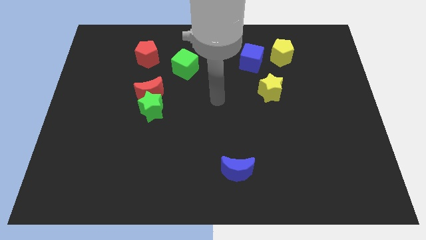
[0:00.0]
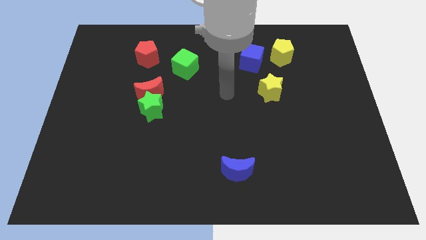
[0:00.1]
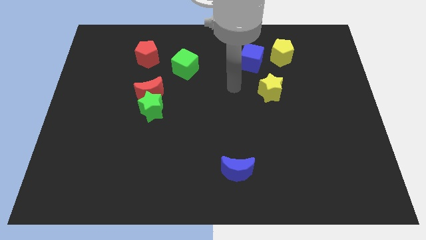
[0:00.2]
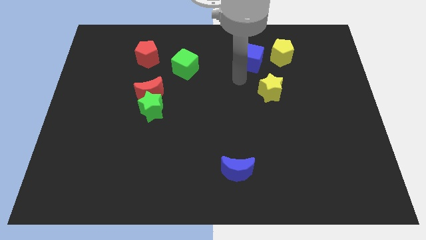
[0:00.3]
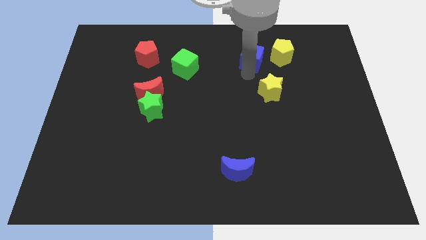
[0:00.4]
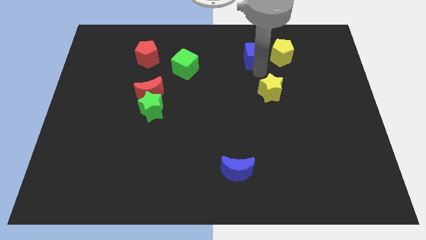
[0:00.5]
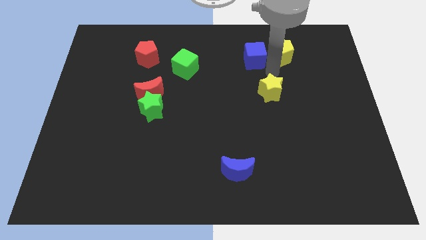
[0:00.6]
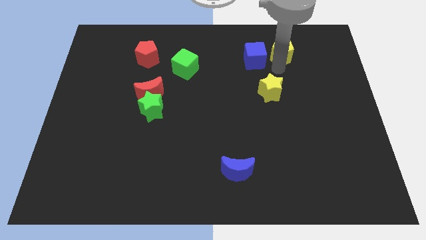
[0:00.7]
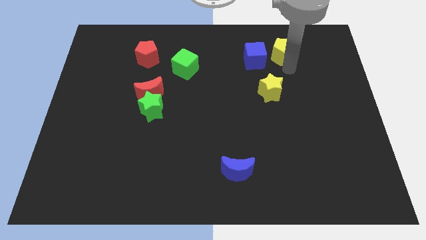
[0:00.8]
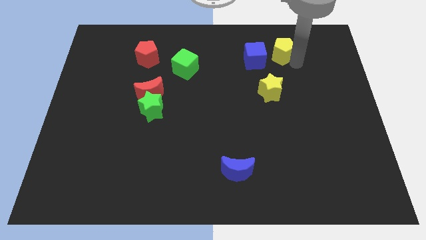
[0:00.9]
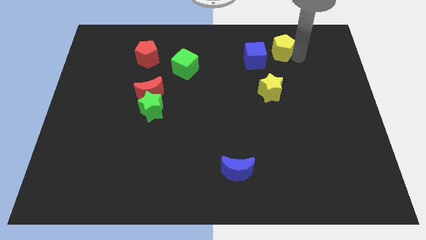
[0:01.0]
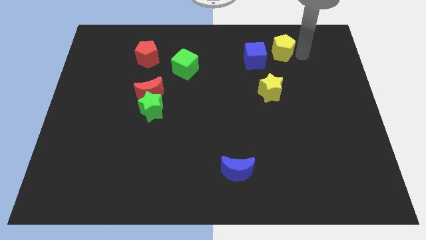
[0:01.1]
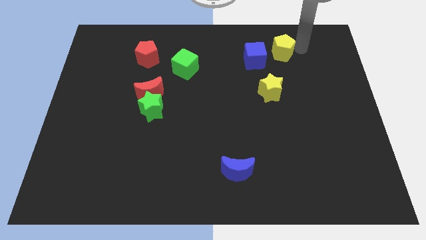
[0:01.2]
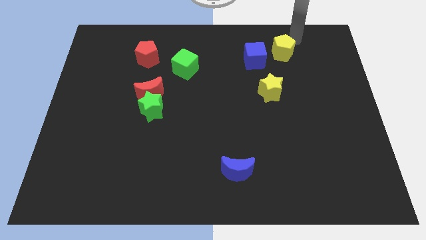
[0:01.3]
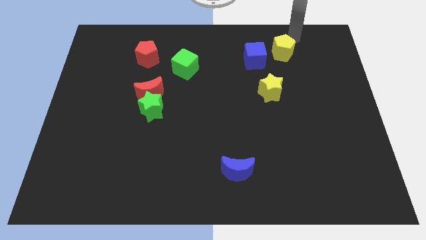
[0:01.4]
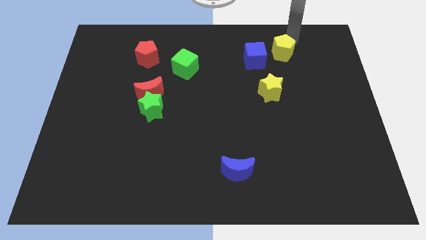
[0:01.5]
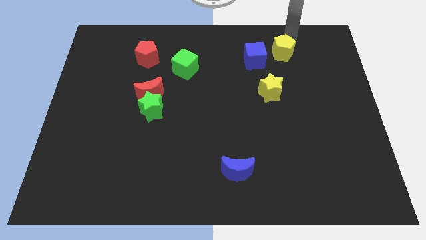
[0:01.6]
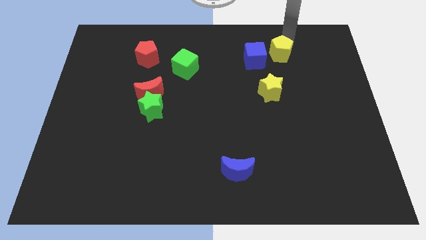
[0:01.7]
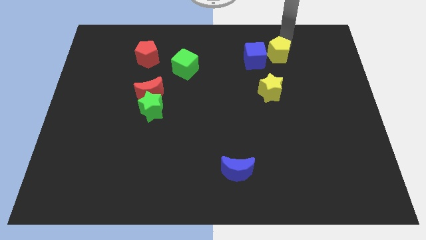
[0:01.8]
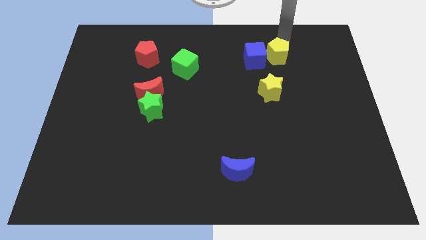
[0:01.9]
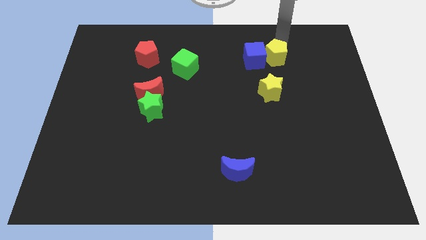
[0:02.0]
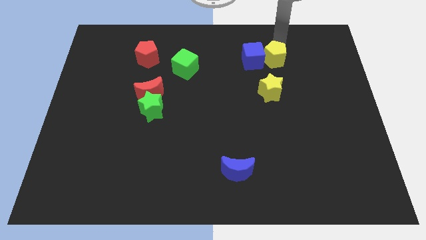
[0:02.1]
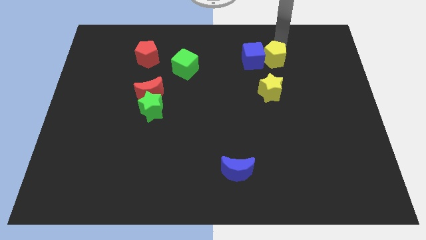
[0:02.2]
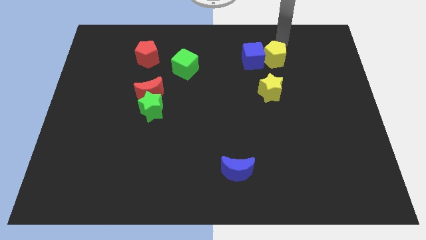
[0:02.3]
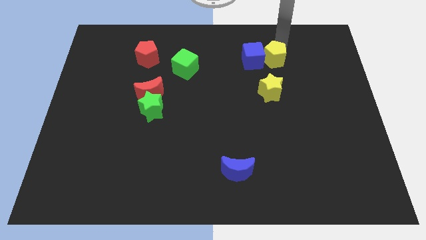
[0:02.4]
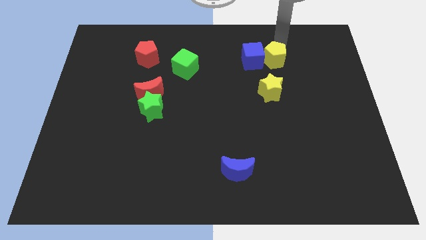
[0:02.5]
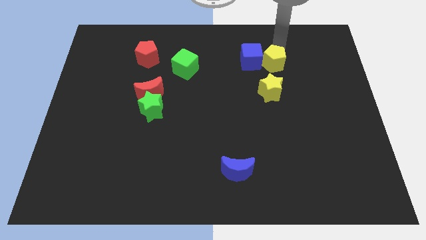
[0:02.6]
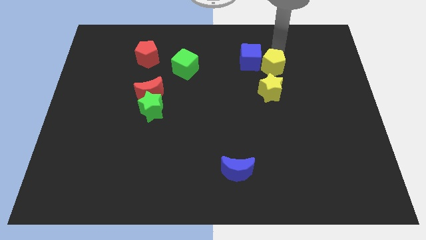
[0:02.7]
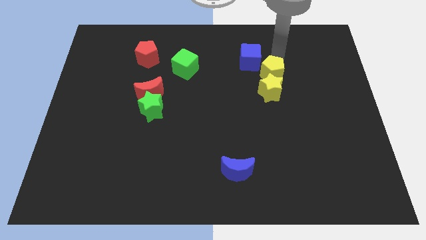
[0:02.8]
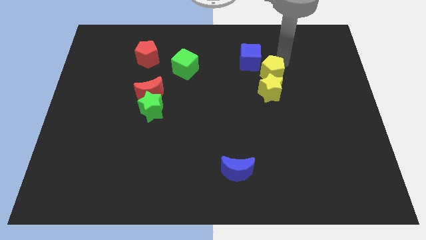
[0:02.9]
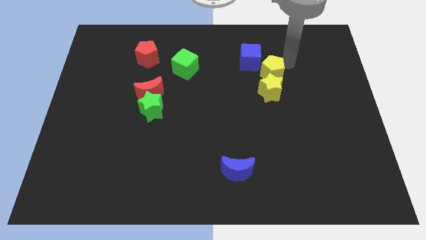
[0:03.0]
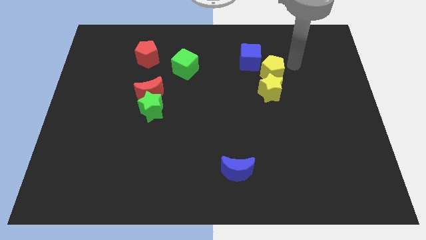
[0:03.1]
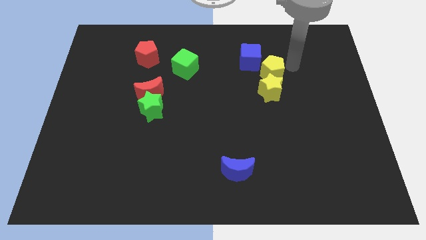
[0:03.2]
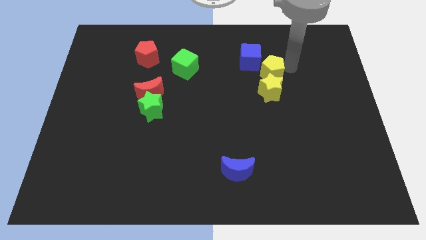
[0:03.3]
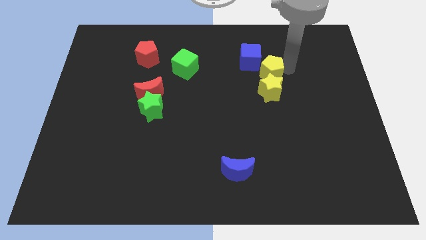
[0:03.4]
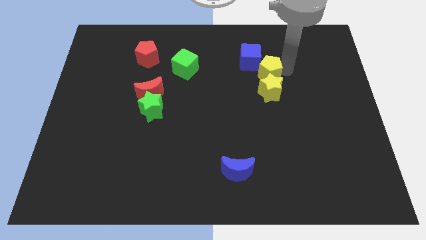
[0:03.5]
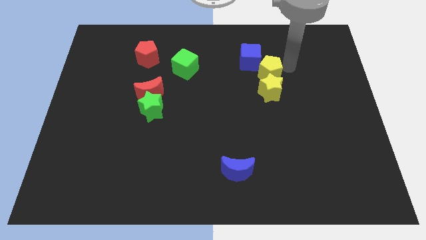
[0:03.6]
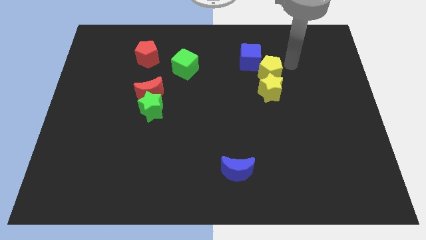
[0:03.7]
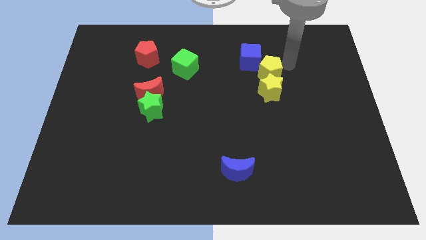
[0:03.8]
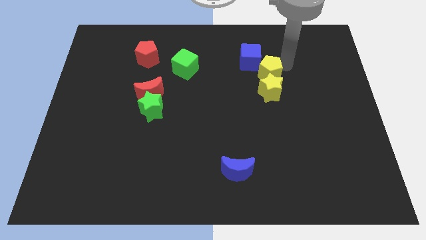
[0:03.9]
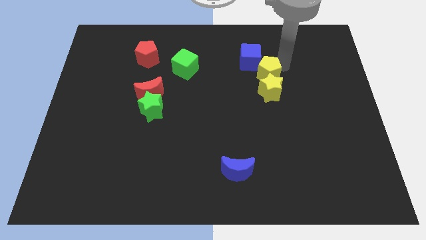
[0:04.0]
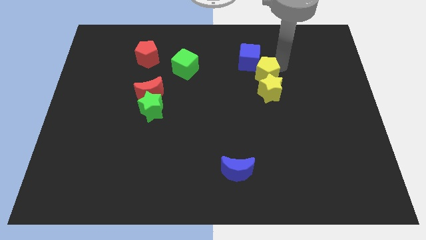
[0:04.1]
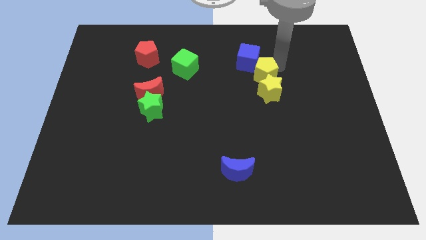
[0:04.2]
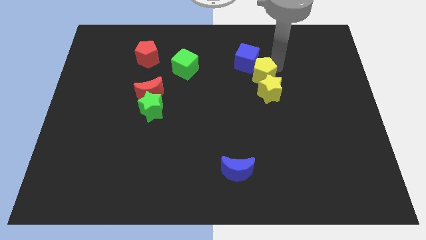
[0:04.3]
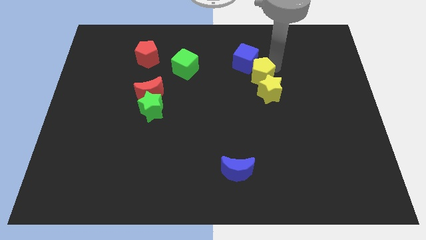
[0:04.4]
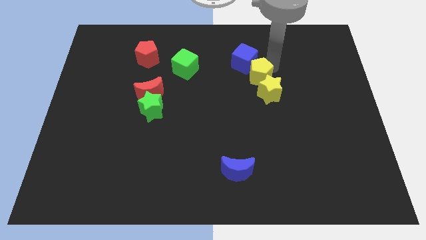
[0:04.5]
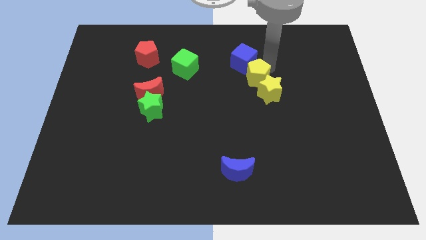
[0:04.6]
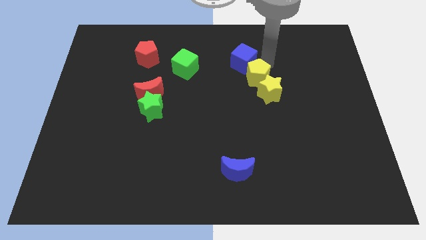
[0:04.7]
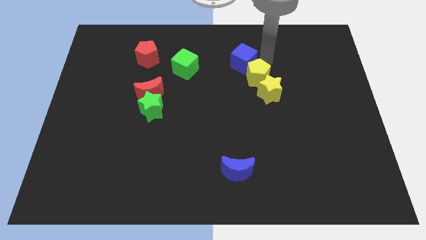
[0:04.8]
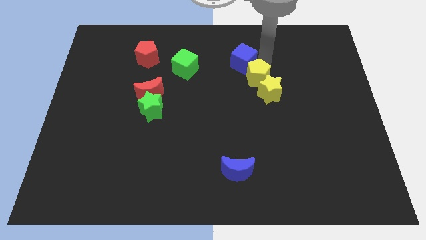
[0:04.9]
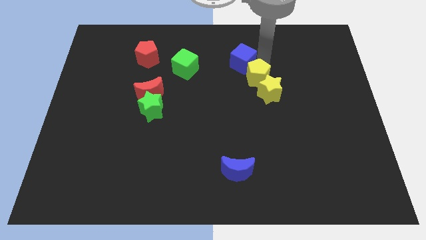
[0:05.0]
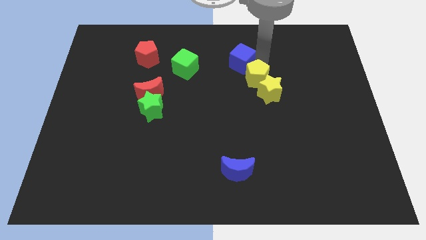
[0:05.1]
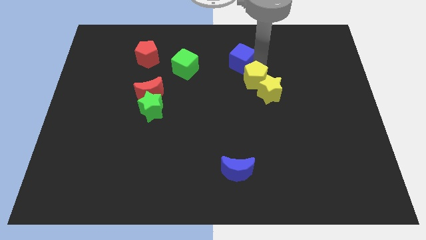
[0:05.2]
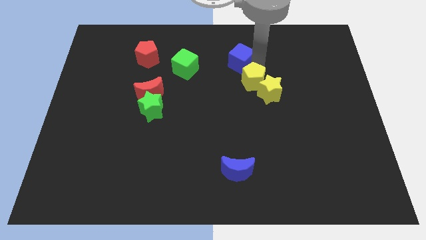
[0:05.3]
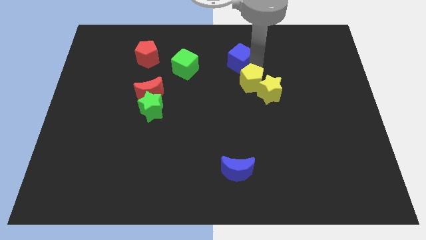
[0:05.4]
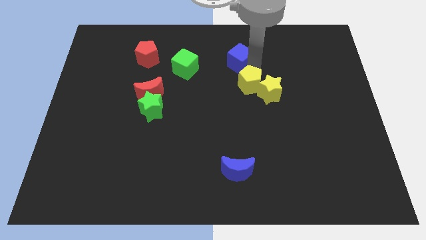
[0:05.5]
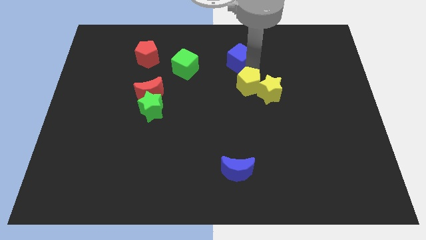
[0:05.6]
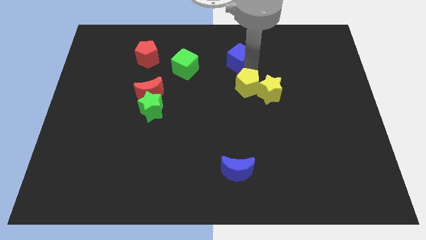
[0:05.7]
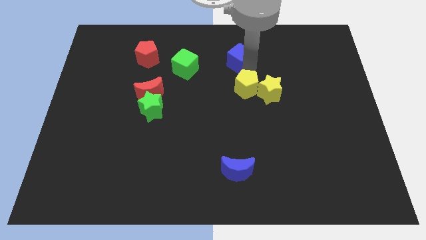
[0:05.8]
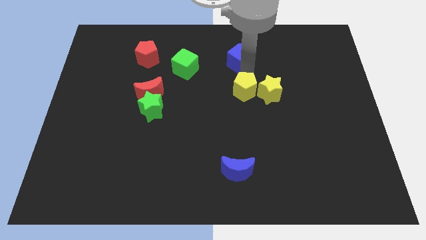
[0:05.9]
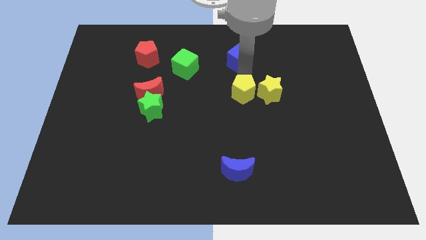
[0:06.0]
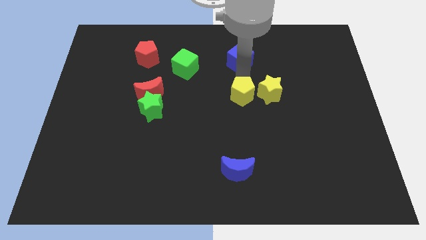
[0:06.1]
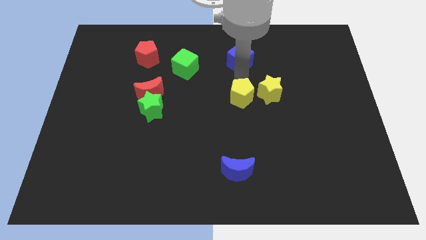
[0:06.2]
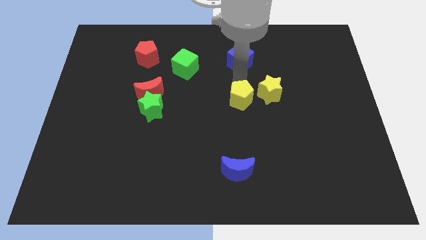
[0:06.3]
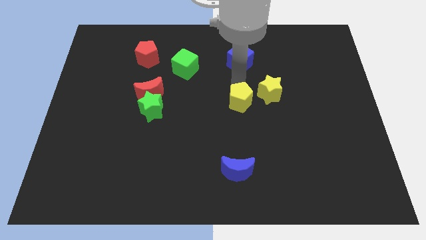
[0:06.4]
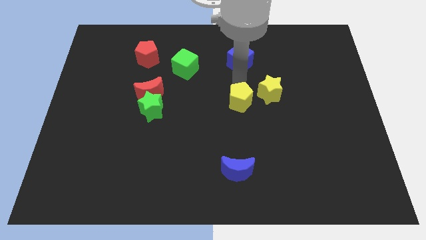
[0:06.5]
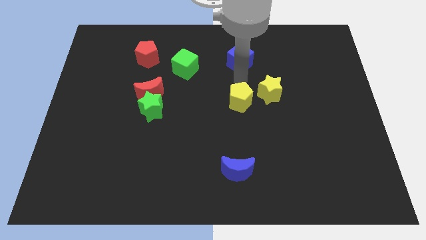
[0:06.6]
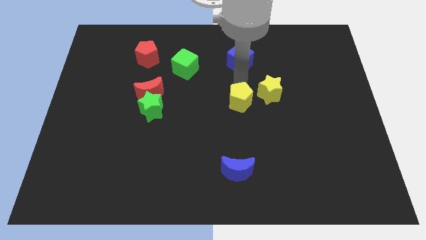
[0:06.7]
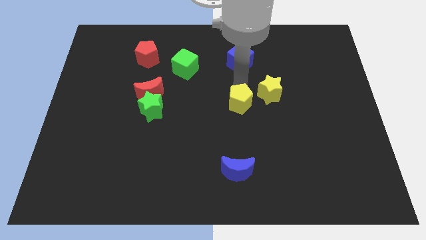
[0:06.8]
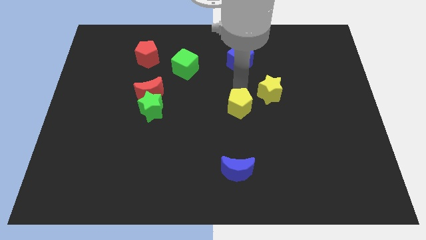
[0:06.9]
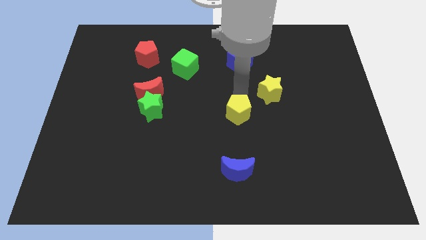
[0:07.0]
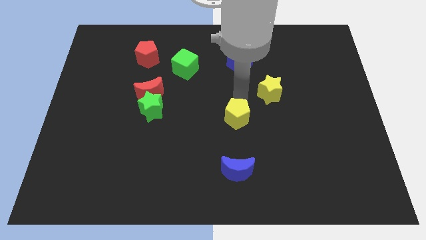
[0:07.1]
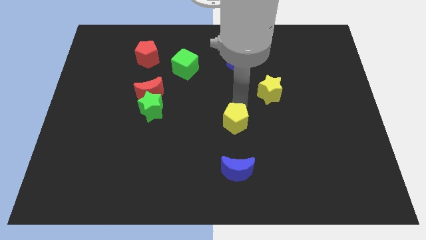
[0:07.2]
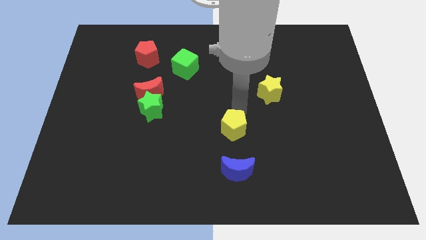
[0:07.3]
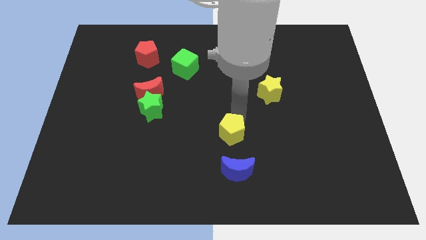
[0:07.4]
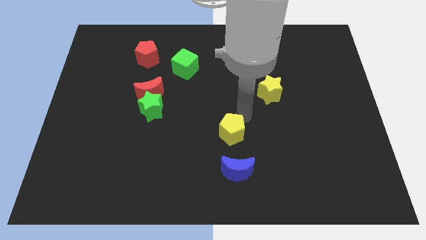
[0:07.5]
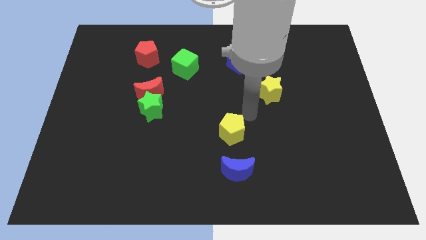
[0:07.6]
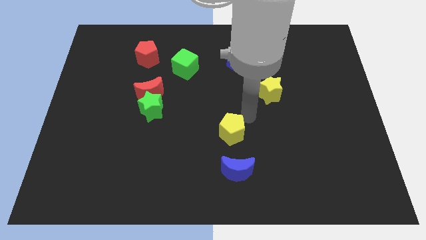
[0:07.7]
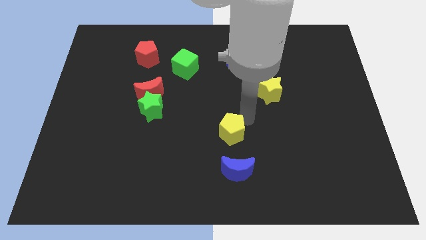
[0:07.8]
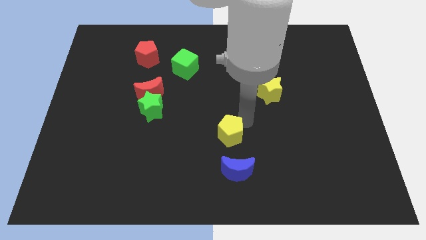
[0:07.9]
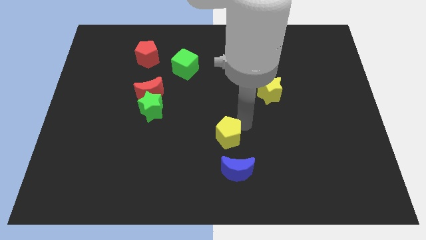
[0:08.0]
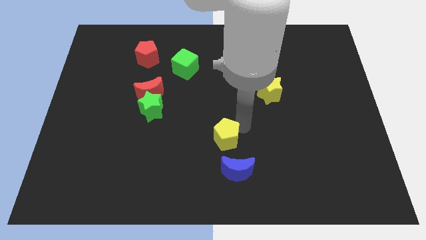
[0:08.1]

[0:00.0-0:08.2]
push the yellow pentagon to the top left side of the blue moon
